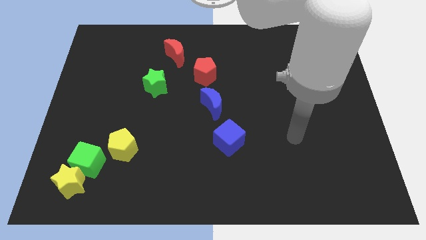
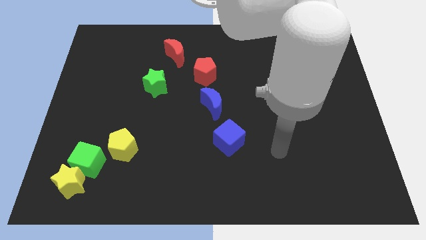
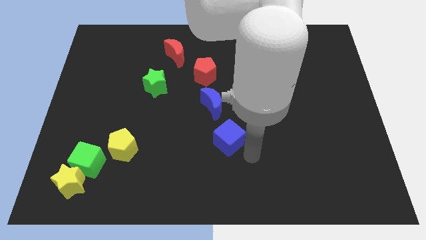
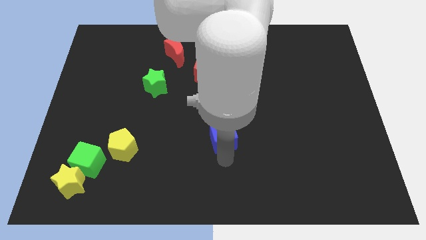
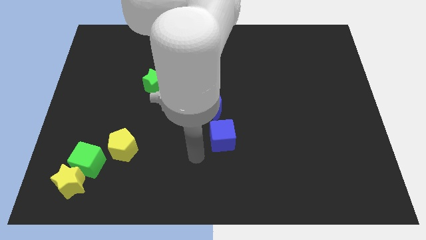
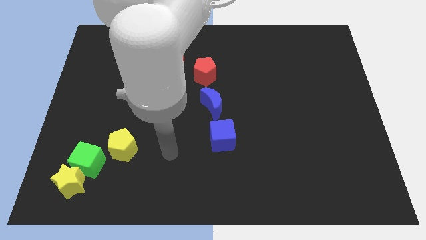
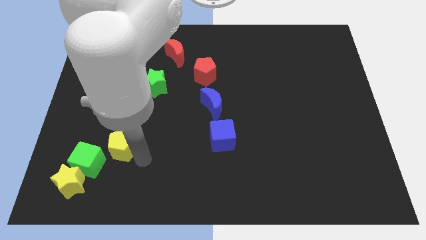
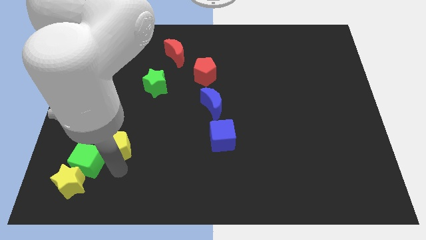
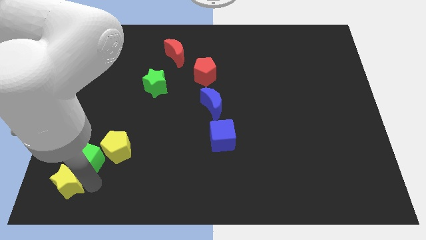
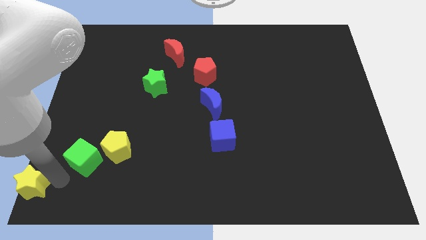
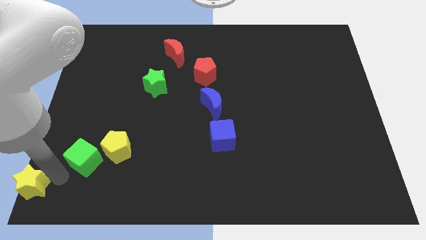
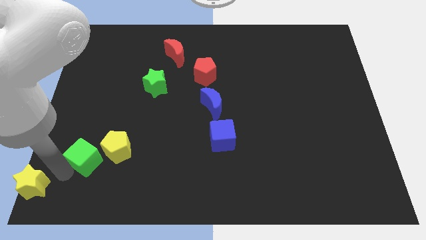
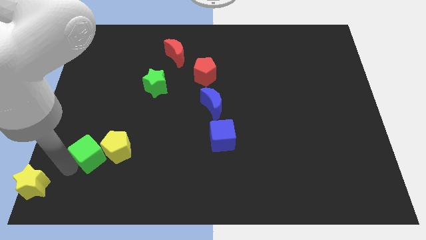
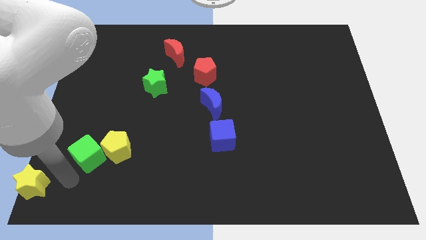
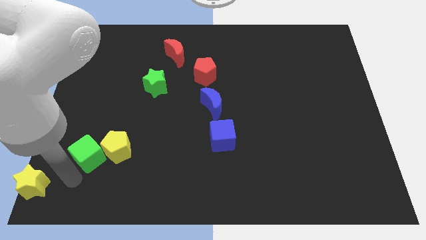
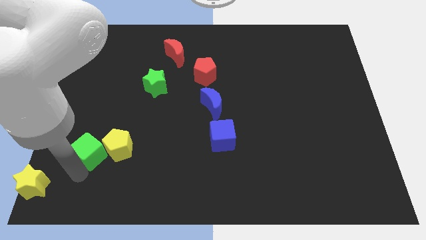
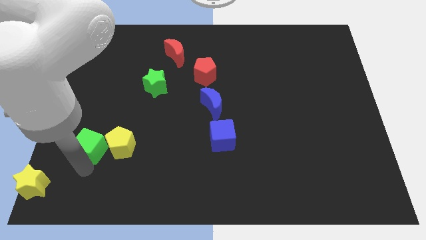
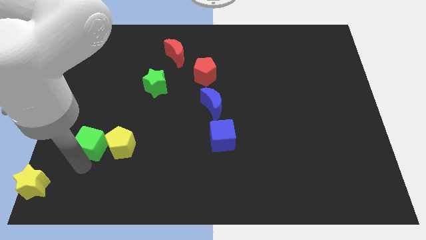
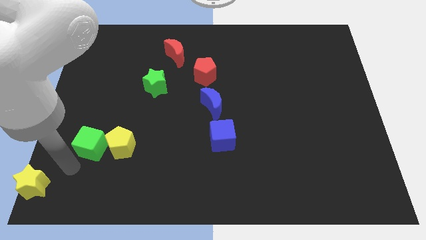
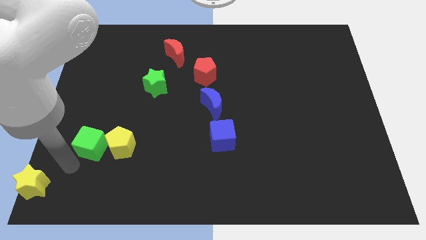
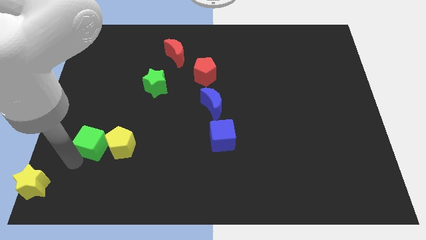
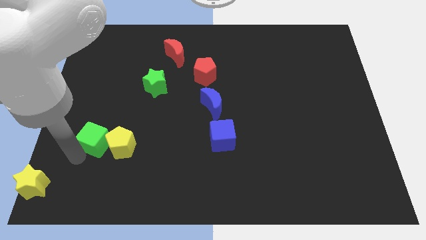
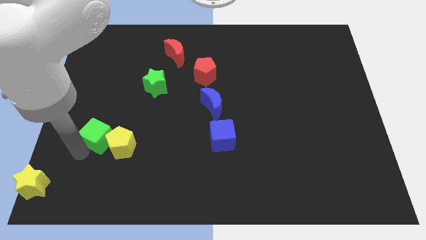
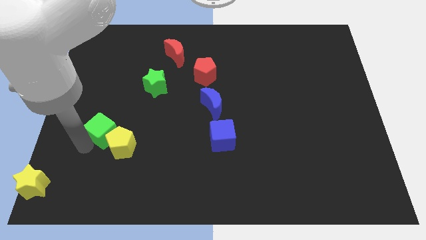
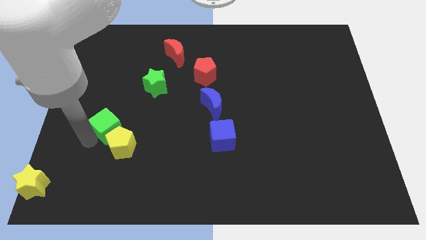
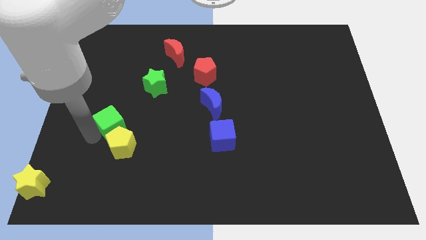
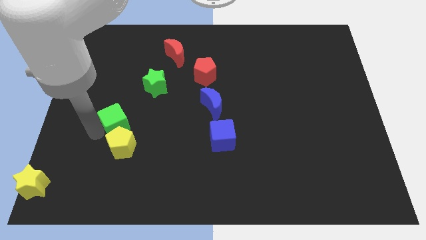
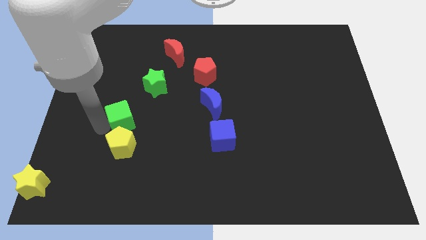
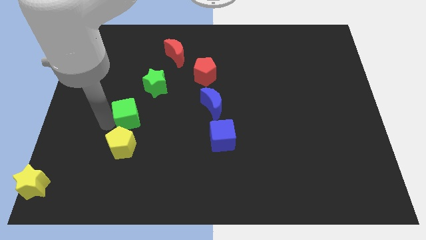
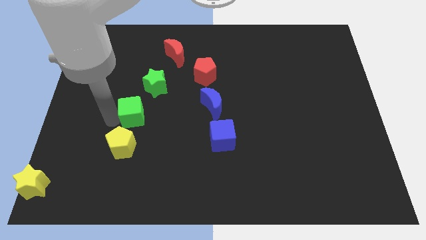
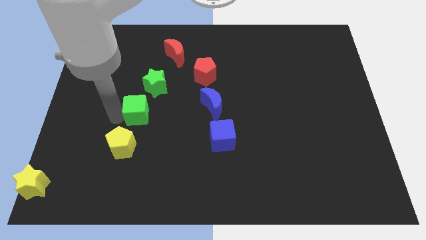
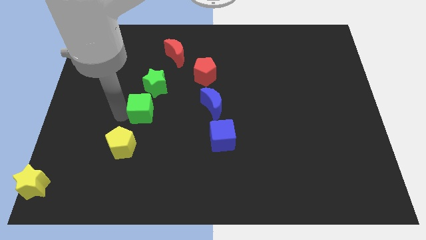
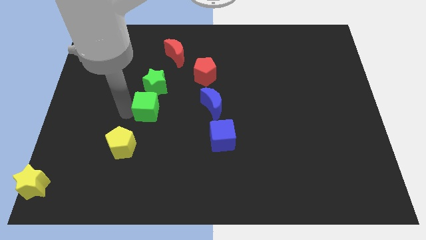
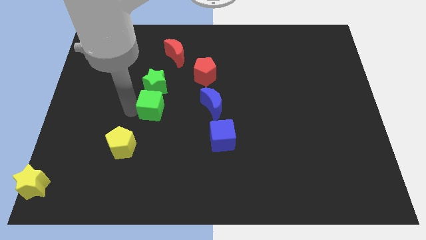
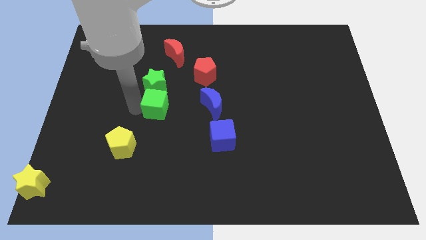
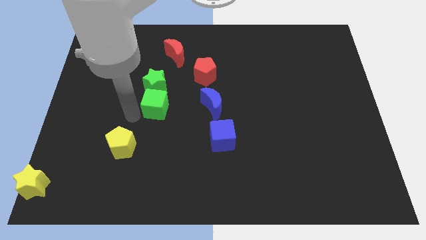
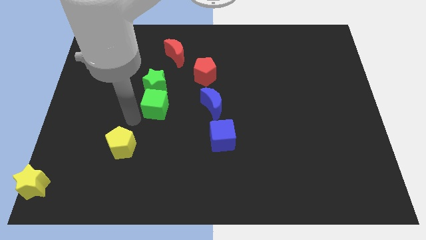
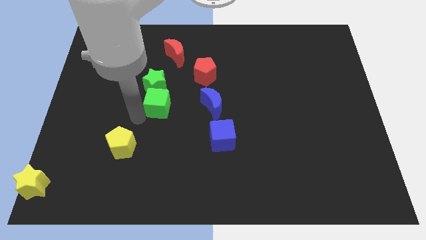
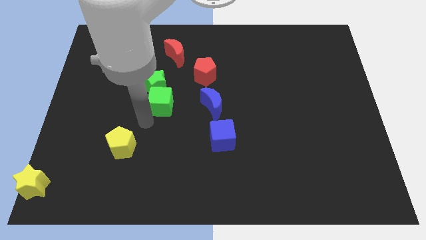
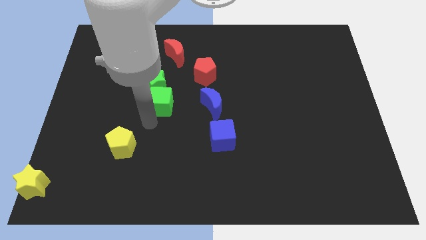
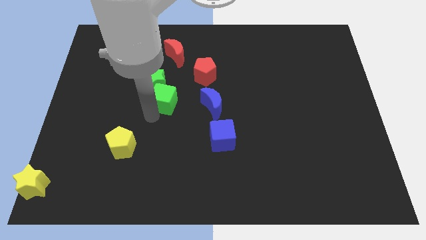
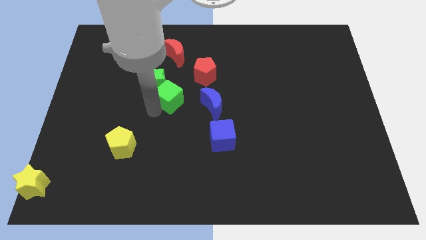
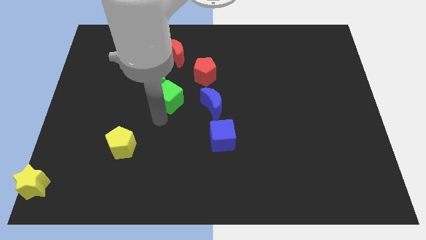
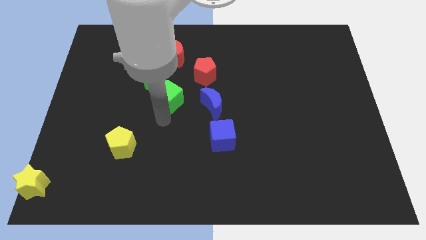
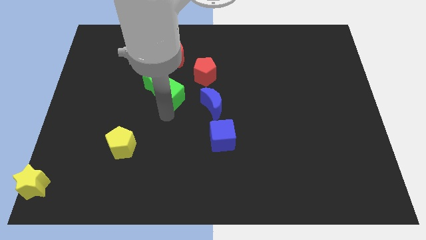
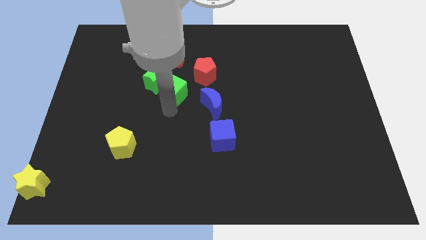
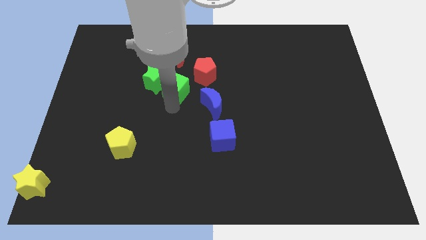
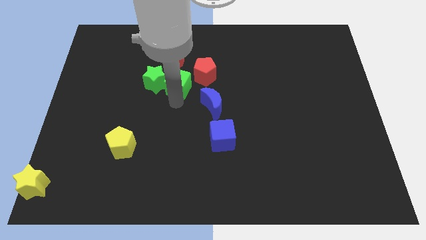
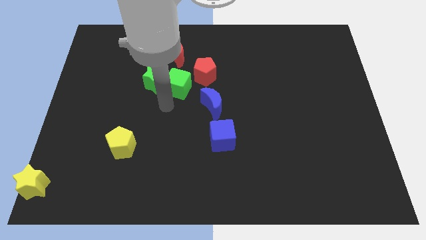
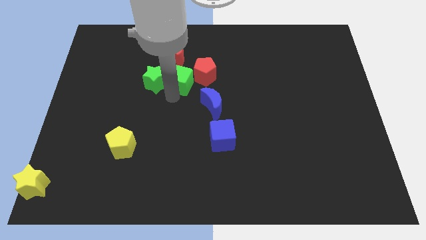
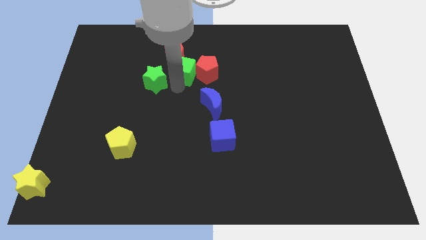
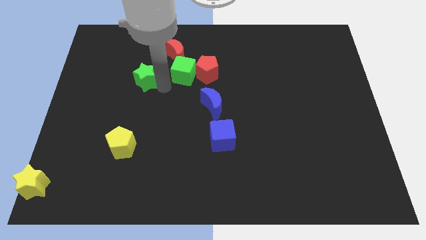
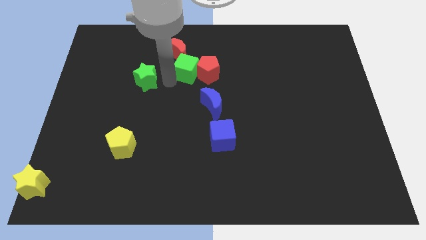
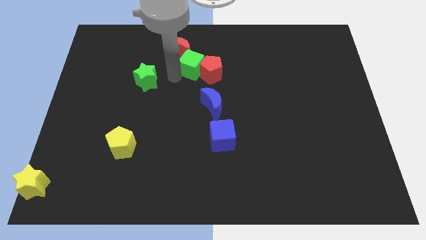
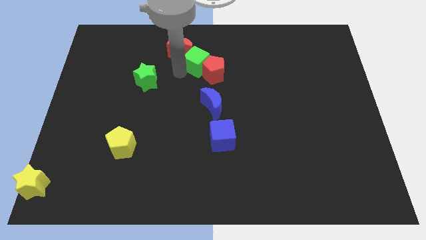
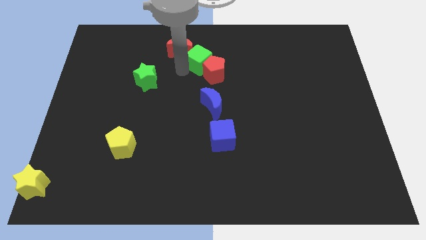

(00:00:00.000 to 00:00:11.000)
put the green cube right of the red moon

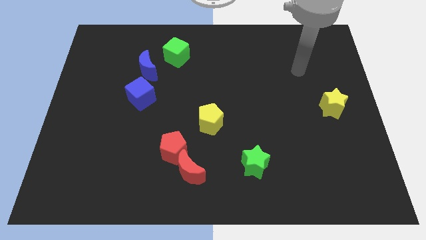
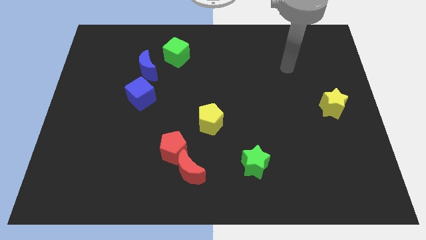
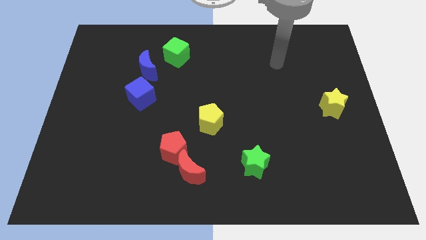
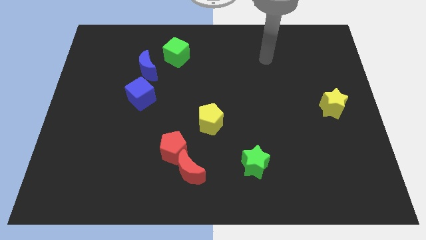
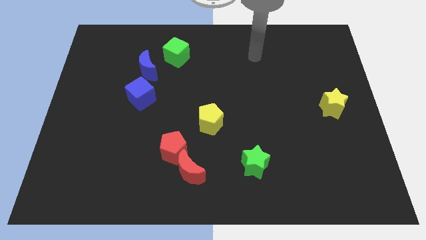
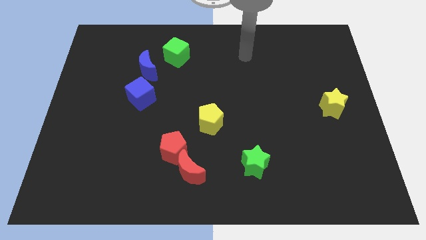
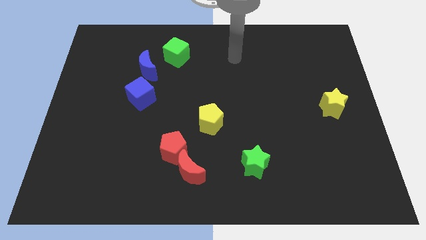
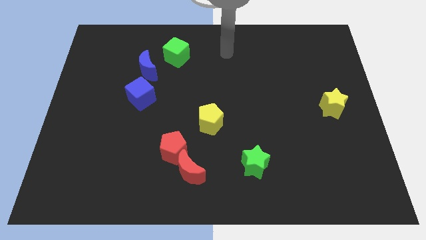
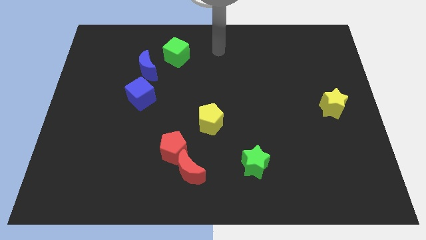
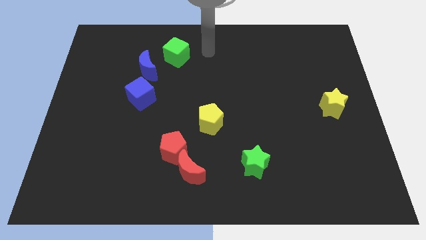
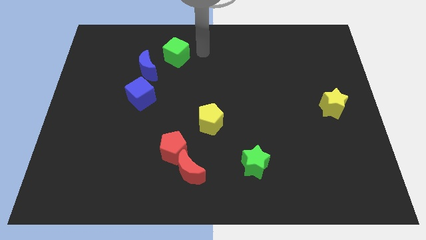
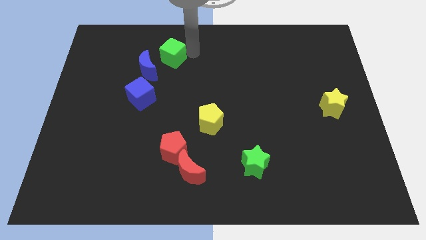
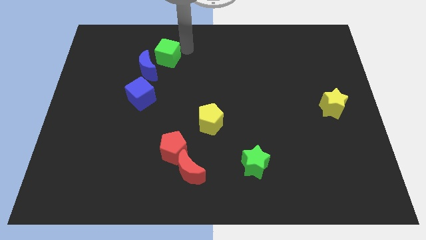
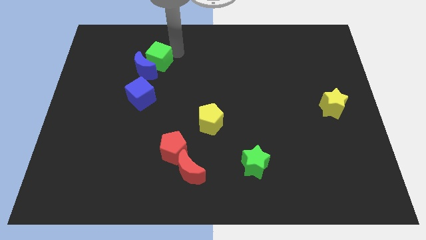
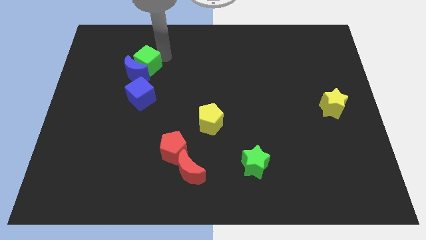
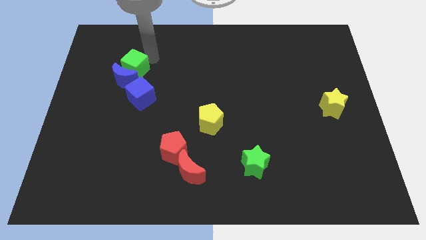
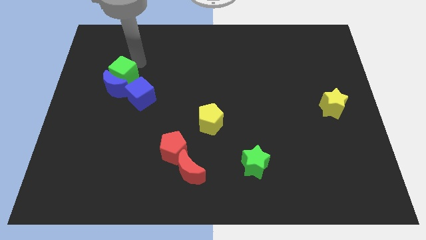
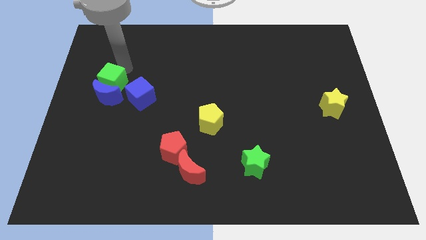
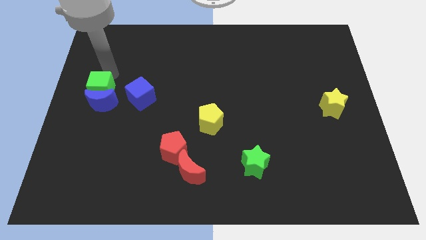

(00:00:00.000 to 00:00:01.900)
slide the blue moon diagonally down and to the left of the blue cube

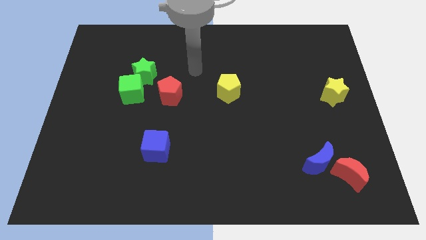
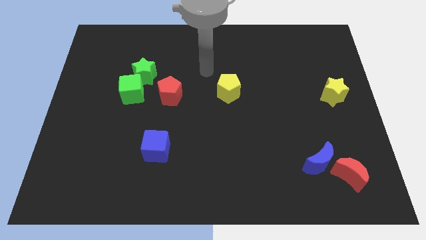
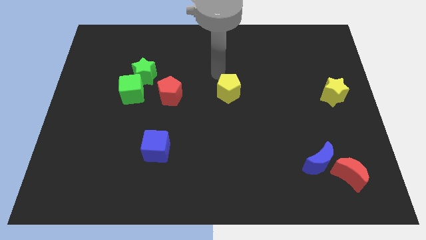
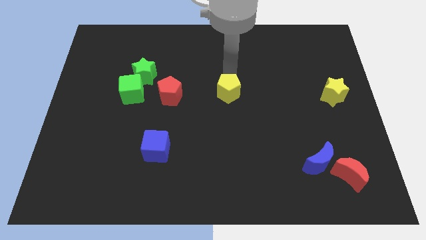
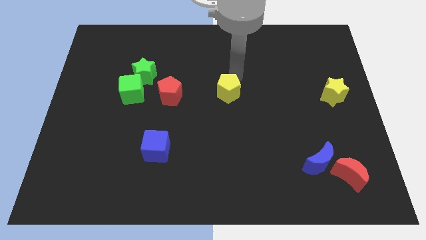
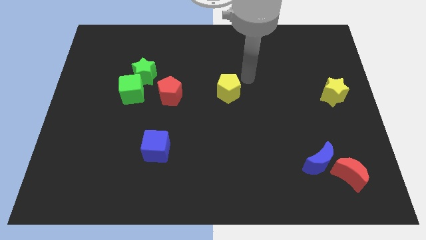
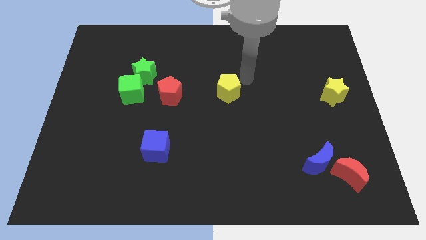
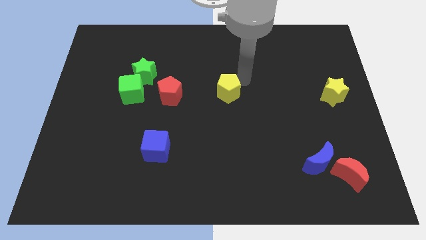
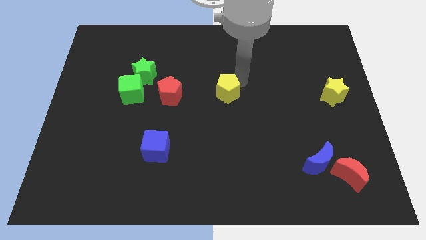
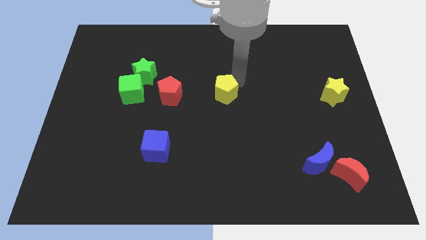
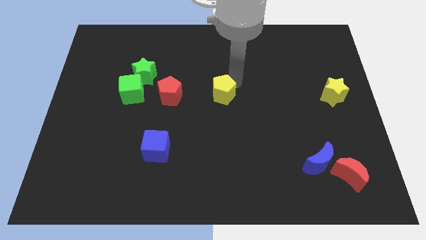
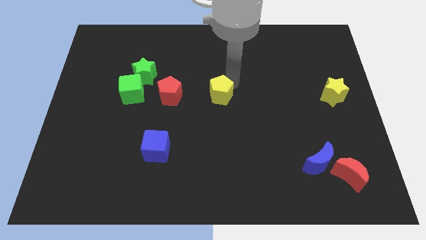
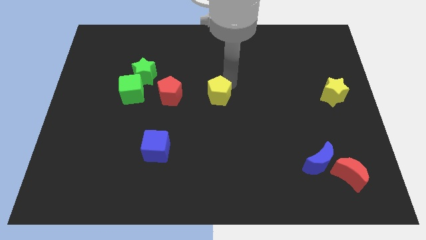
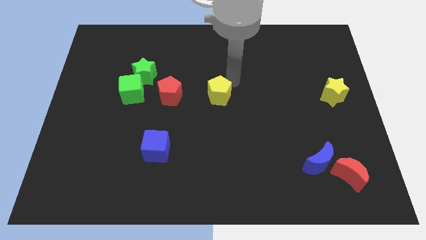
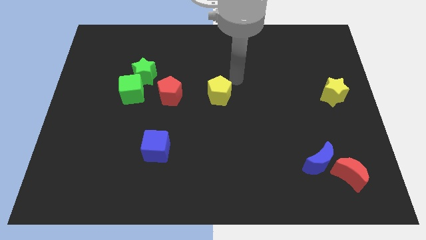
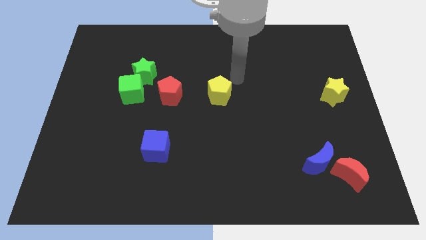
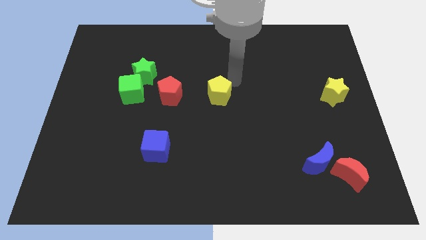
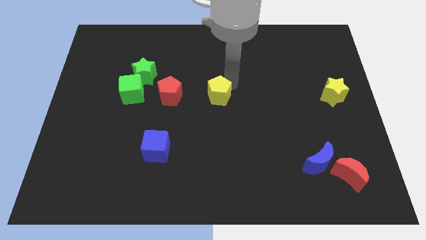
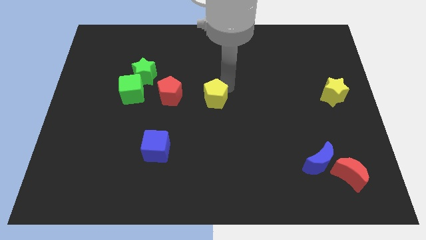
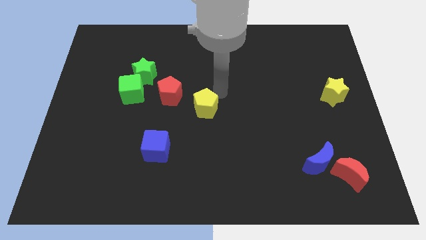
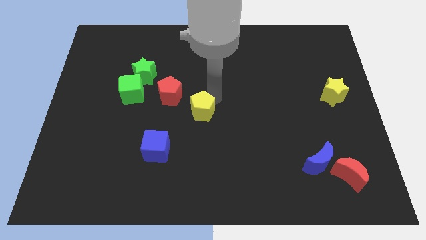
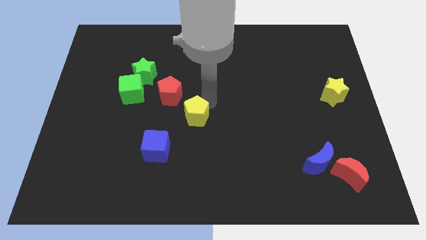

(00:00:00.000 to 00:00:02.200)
slide the yellow pentagon to the top right of the blue cube
